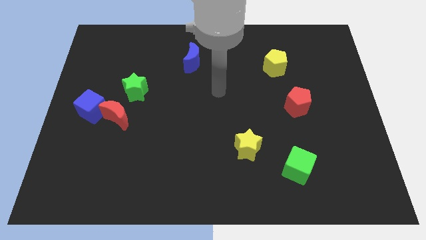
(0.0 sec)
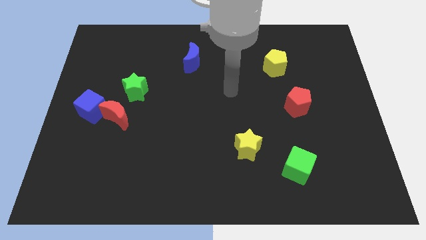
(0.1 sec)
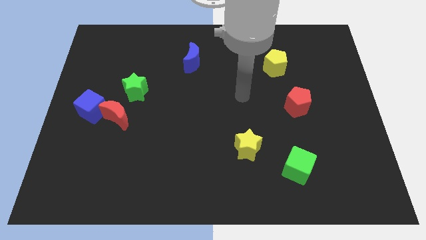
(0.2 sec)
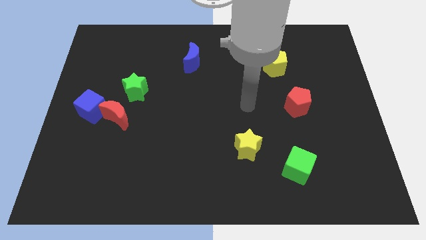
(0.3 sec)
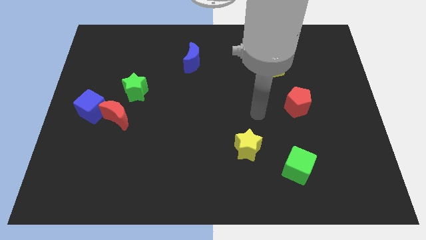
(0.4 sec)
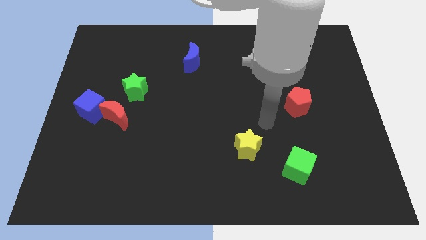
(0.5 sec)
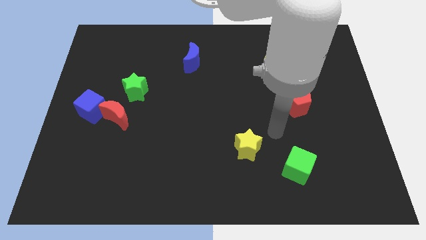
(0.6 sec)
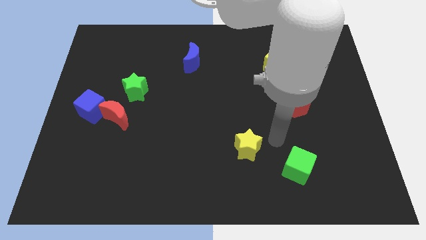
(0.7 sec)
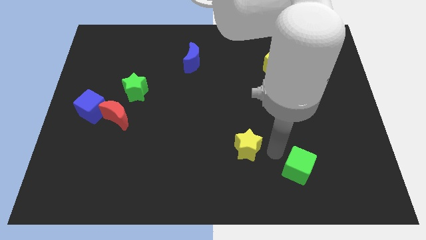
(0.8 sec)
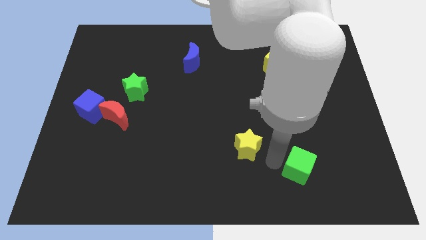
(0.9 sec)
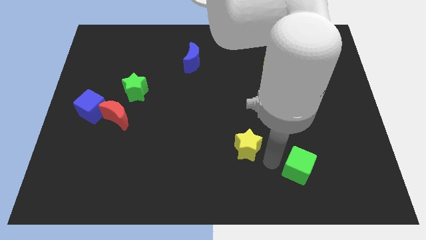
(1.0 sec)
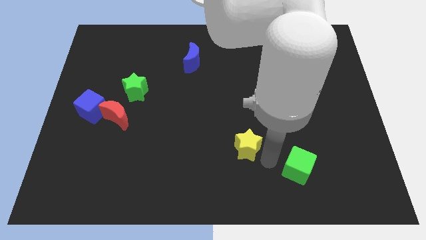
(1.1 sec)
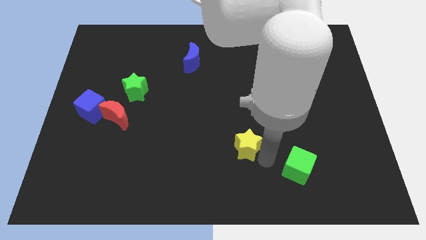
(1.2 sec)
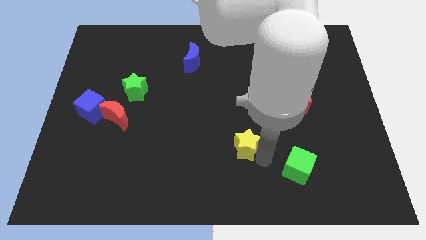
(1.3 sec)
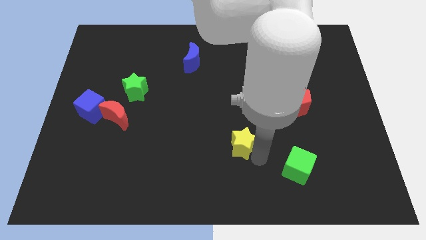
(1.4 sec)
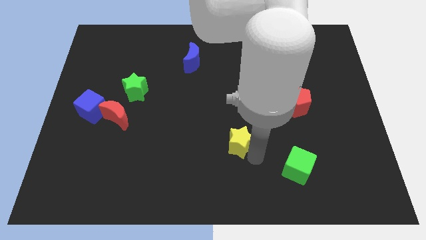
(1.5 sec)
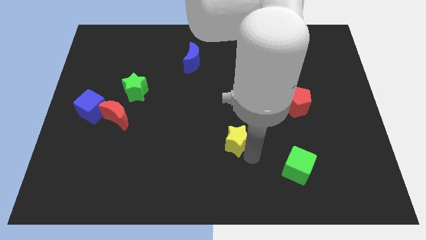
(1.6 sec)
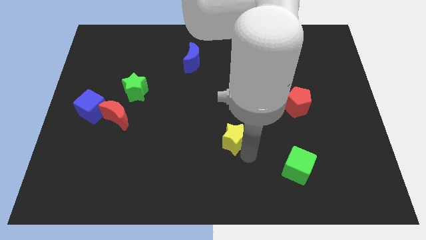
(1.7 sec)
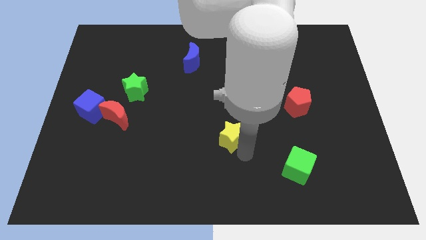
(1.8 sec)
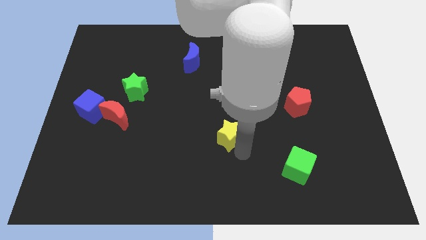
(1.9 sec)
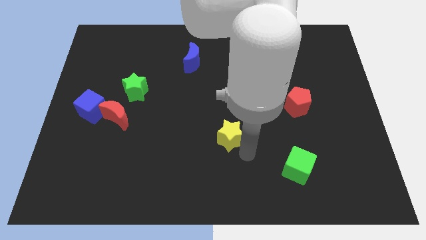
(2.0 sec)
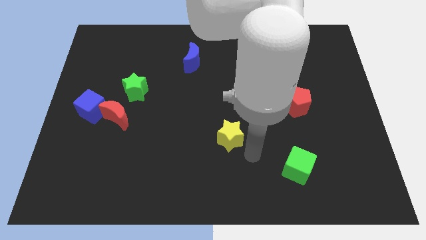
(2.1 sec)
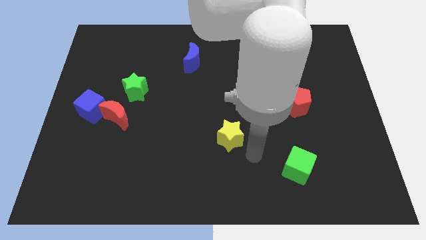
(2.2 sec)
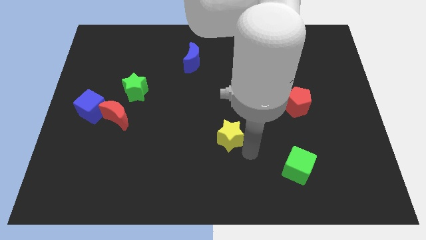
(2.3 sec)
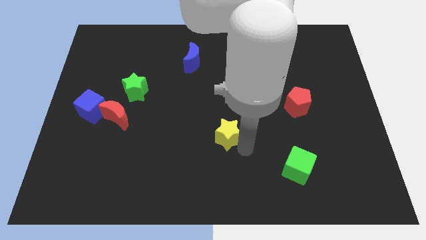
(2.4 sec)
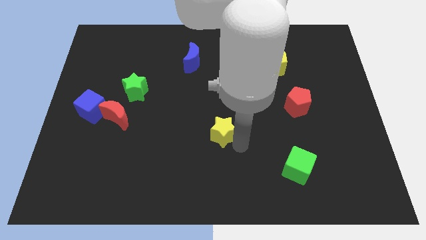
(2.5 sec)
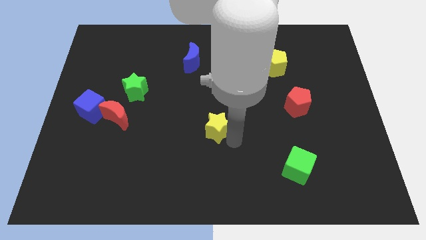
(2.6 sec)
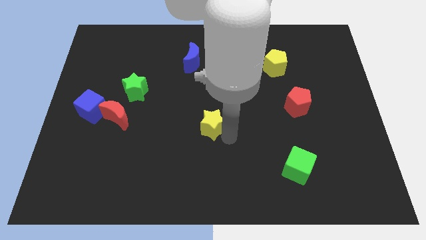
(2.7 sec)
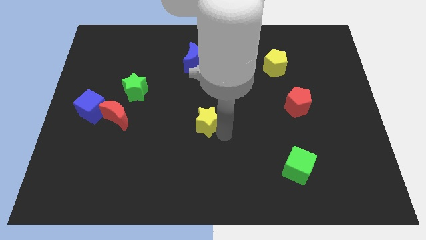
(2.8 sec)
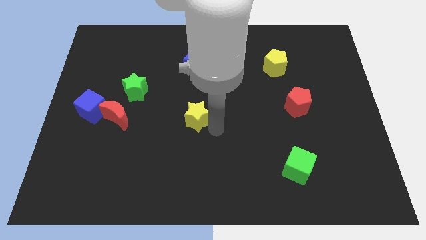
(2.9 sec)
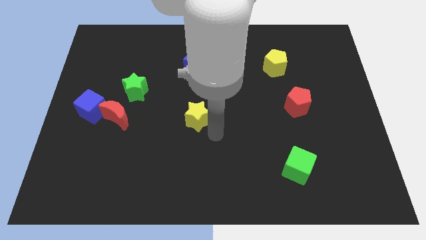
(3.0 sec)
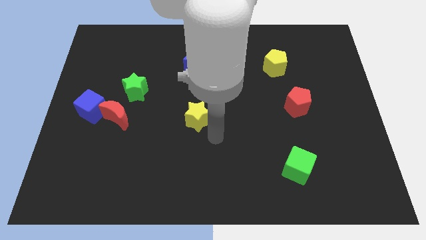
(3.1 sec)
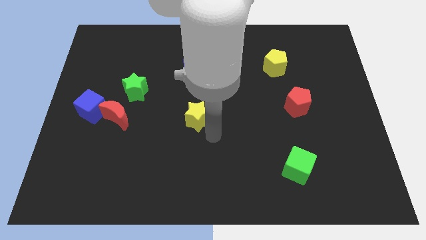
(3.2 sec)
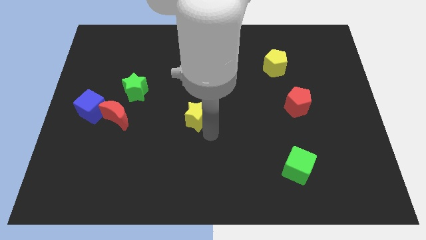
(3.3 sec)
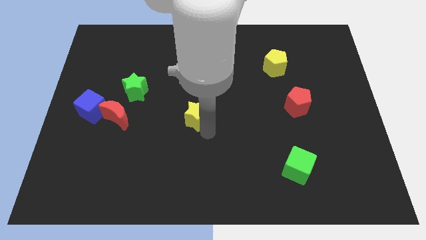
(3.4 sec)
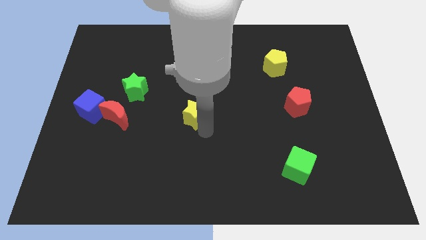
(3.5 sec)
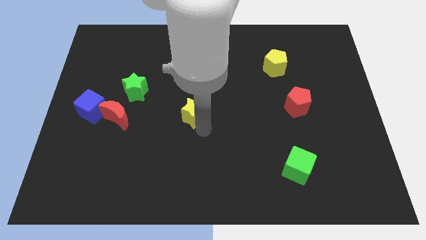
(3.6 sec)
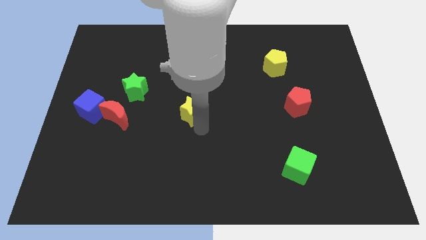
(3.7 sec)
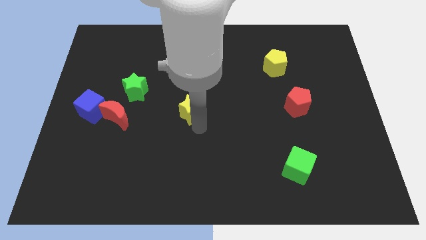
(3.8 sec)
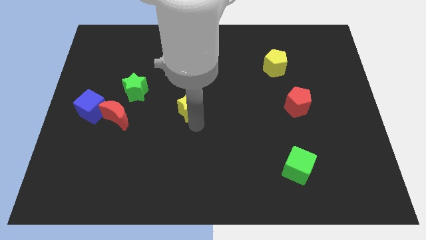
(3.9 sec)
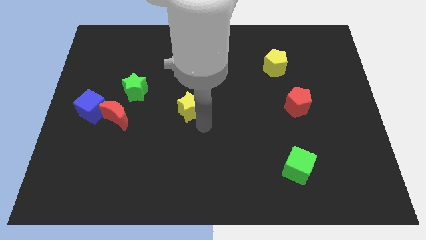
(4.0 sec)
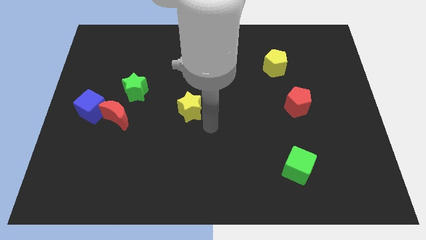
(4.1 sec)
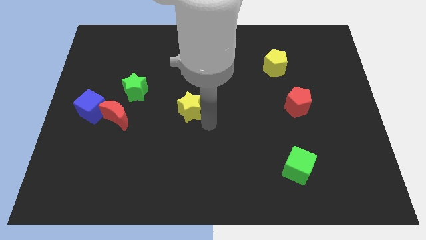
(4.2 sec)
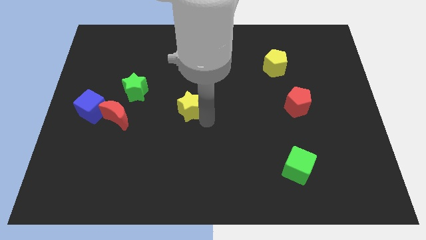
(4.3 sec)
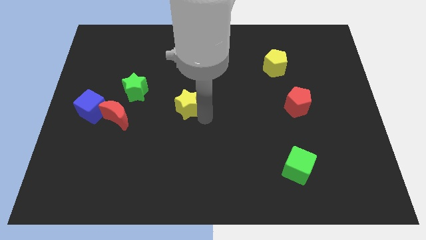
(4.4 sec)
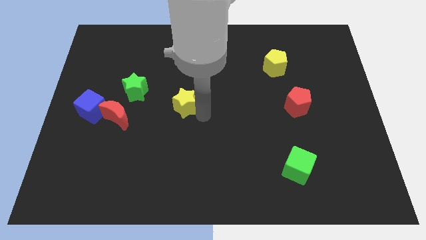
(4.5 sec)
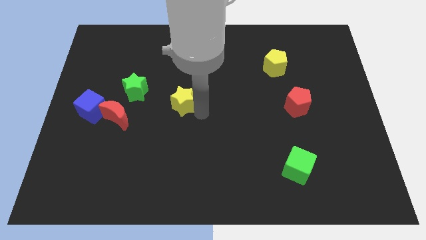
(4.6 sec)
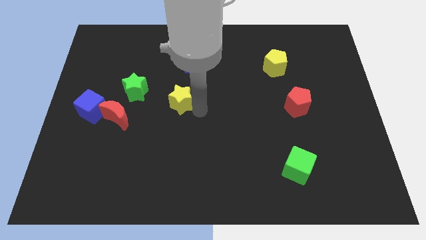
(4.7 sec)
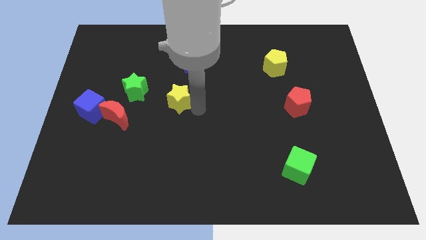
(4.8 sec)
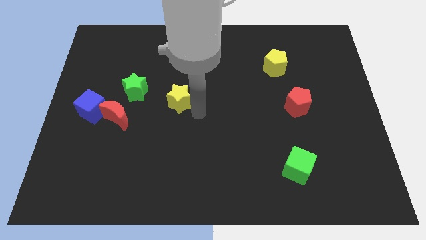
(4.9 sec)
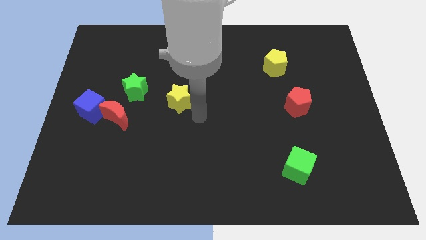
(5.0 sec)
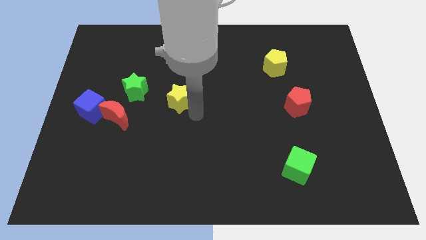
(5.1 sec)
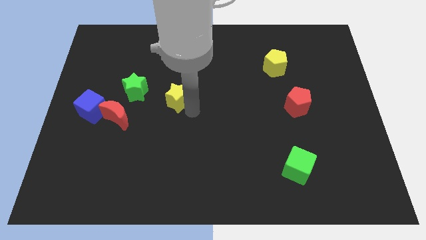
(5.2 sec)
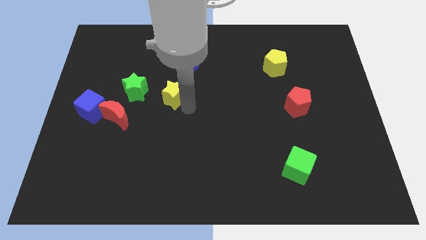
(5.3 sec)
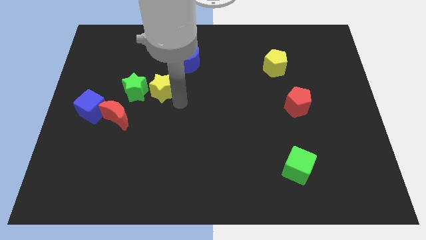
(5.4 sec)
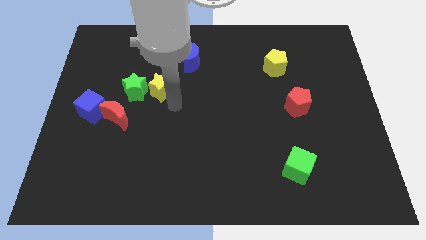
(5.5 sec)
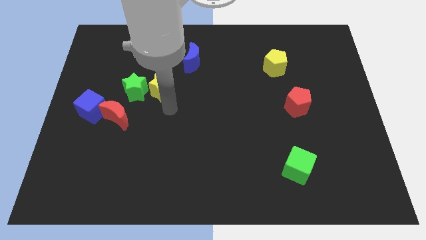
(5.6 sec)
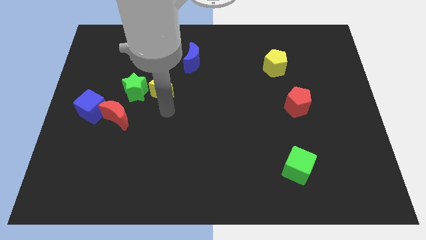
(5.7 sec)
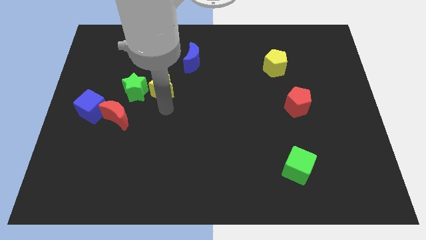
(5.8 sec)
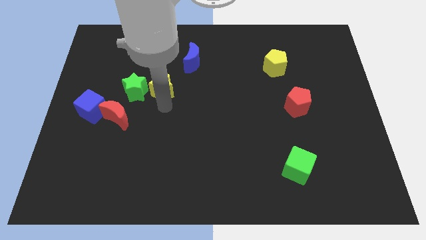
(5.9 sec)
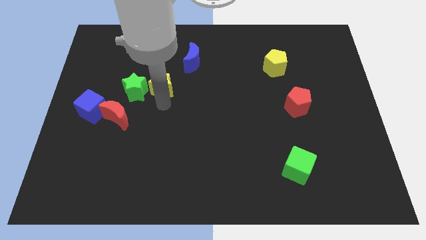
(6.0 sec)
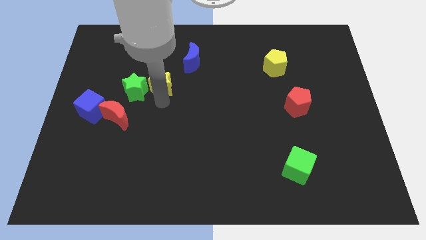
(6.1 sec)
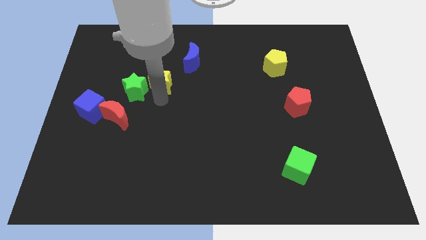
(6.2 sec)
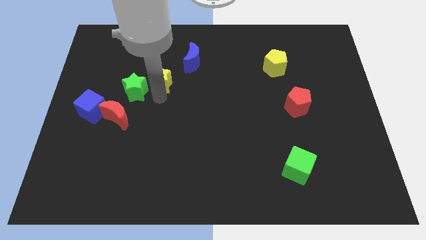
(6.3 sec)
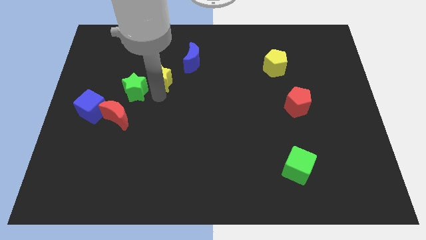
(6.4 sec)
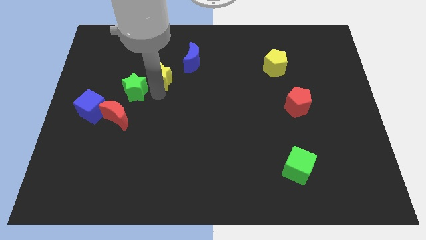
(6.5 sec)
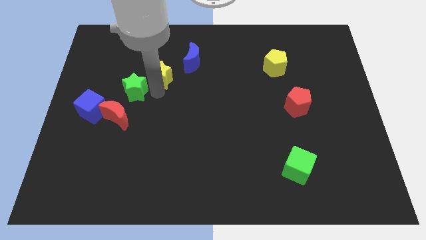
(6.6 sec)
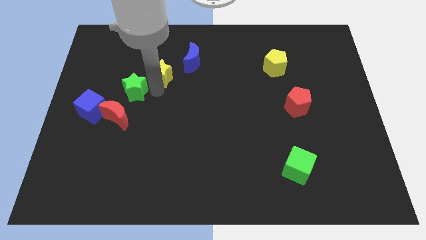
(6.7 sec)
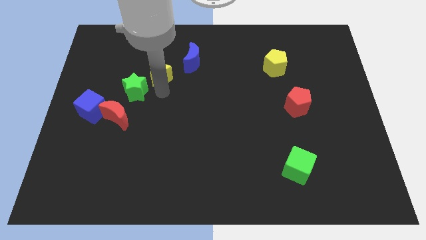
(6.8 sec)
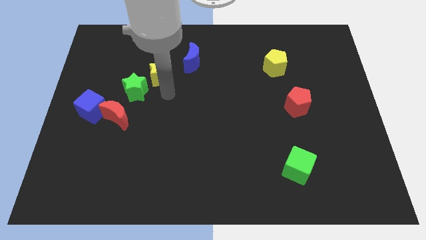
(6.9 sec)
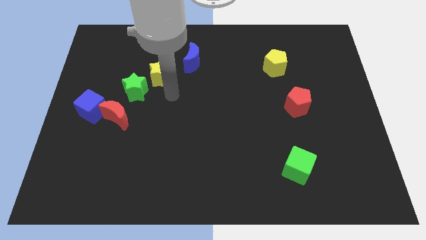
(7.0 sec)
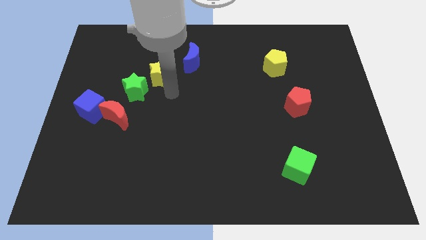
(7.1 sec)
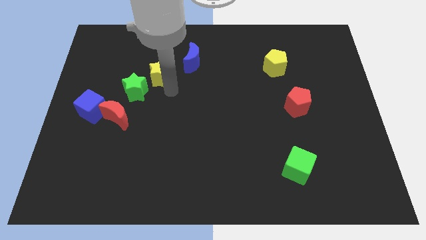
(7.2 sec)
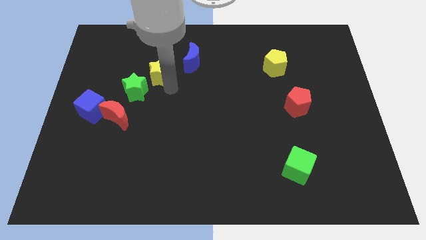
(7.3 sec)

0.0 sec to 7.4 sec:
move the yellow star to the left side of the blue moon

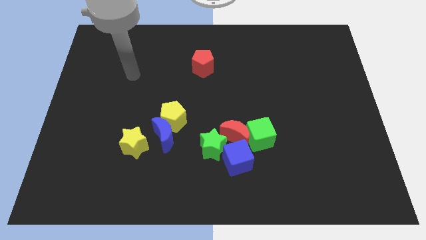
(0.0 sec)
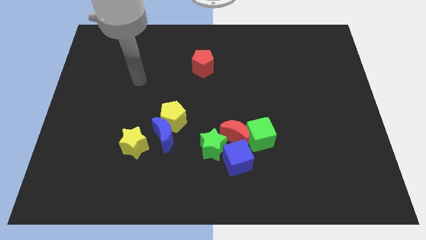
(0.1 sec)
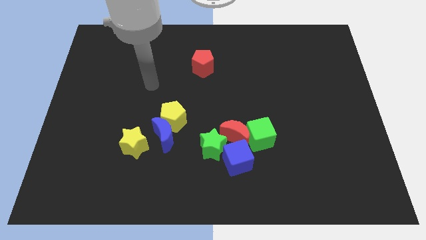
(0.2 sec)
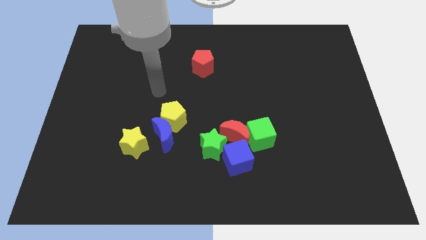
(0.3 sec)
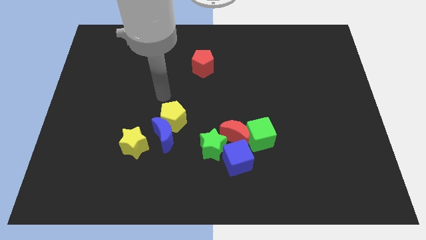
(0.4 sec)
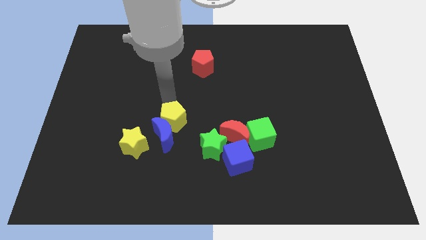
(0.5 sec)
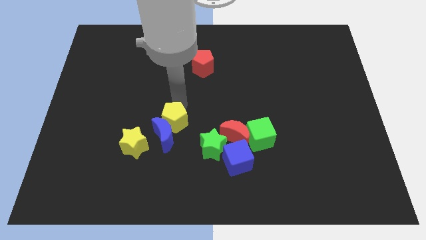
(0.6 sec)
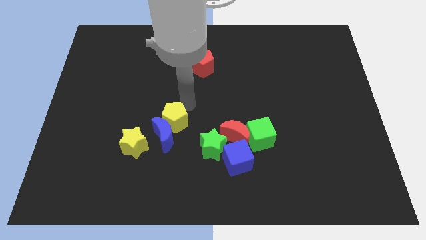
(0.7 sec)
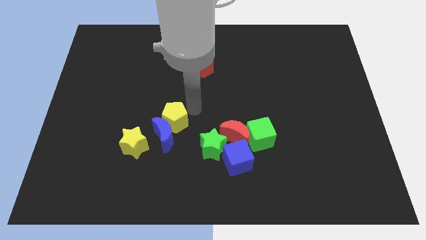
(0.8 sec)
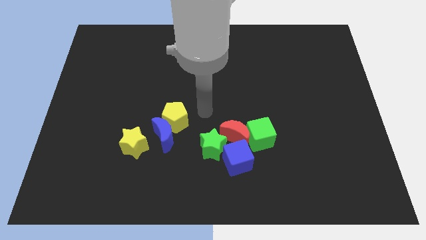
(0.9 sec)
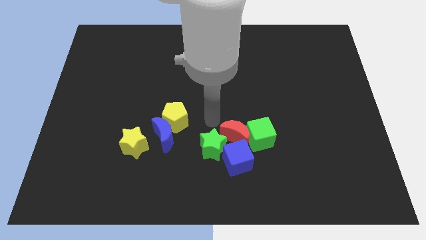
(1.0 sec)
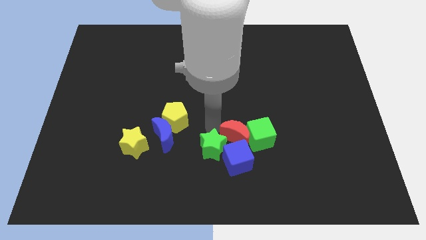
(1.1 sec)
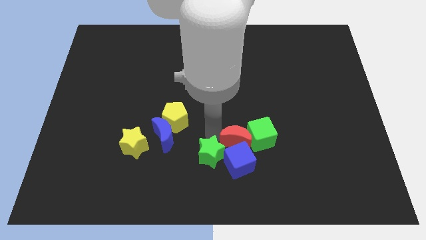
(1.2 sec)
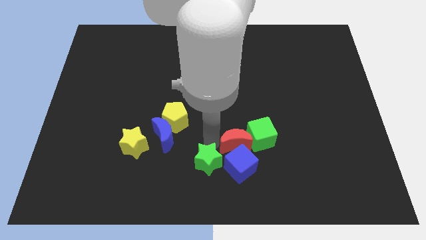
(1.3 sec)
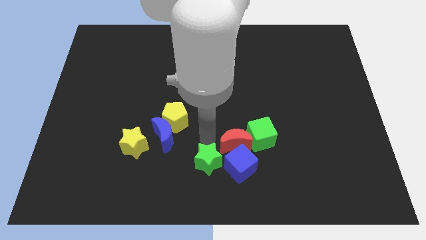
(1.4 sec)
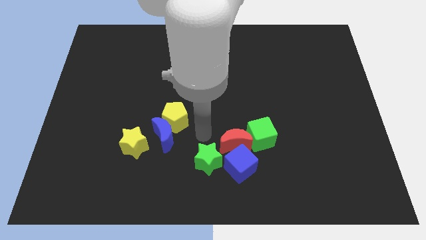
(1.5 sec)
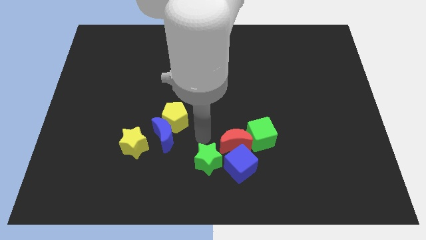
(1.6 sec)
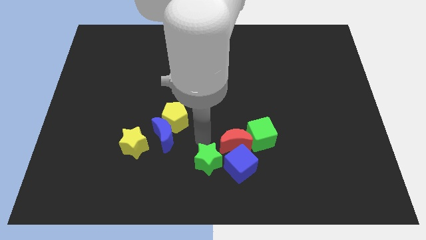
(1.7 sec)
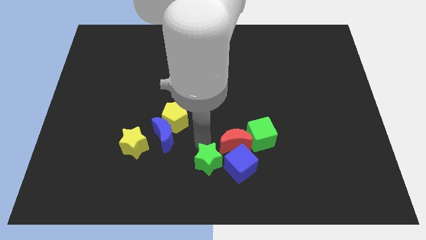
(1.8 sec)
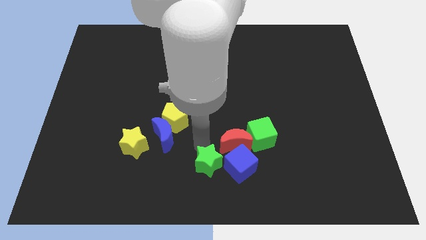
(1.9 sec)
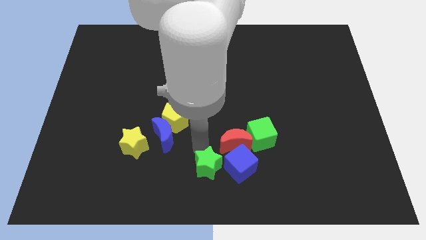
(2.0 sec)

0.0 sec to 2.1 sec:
put the green star diagonally down and to the left of the blue cube
